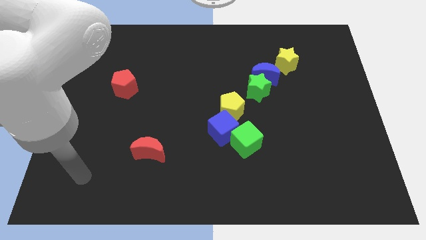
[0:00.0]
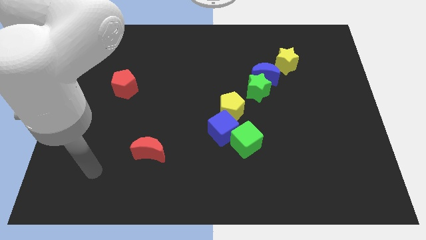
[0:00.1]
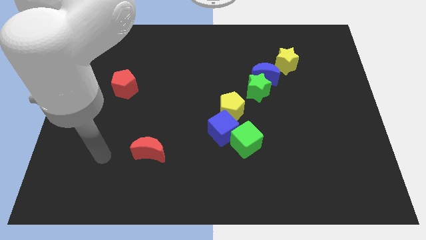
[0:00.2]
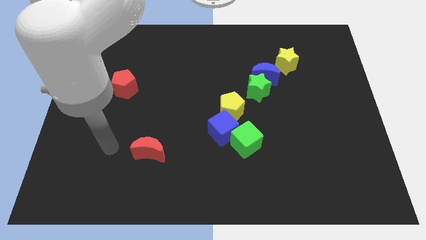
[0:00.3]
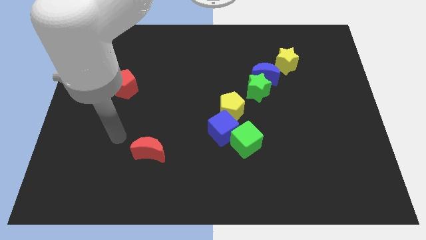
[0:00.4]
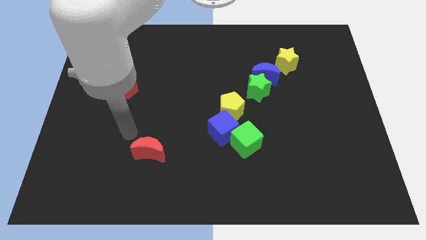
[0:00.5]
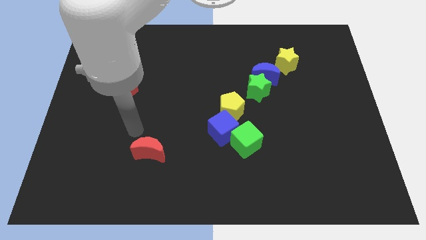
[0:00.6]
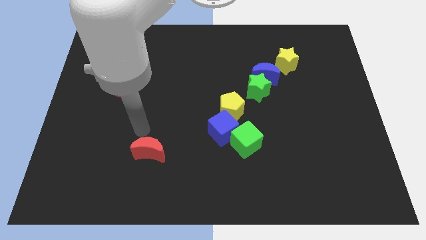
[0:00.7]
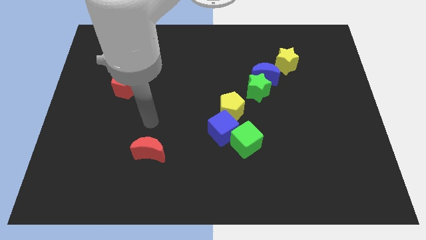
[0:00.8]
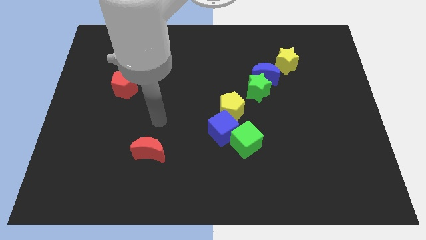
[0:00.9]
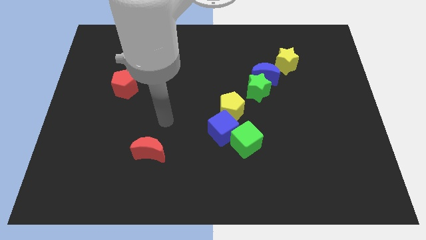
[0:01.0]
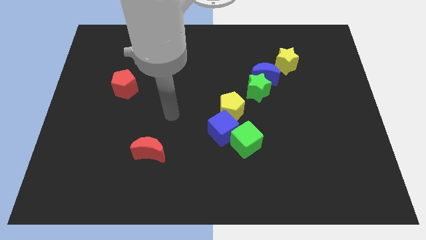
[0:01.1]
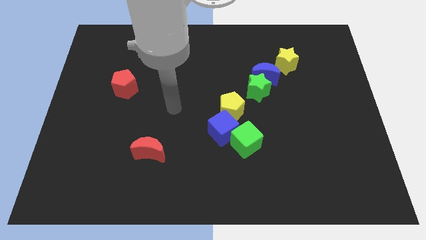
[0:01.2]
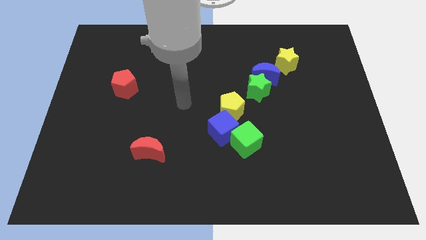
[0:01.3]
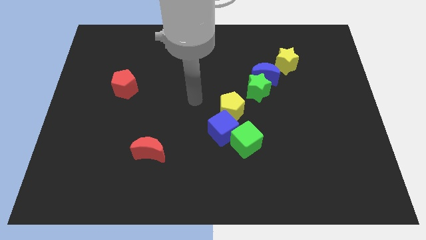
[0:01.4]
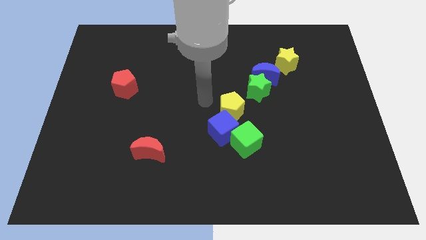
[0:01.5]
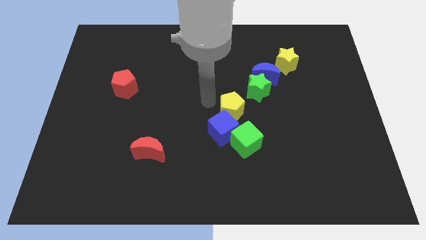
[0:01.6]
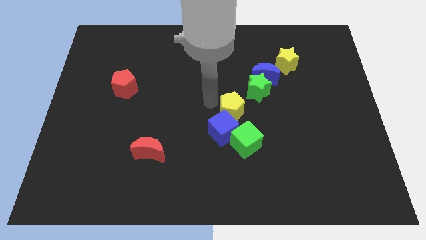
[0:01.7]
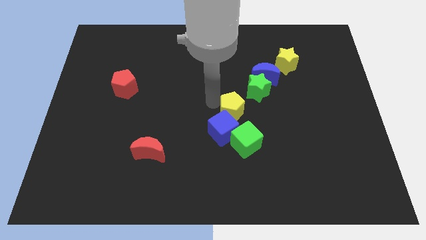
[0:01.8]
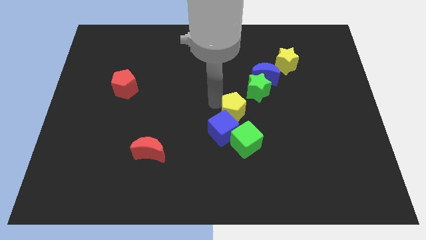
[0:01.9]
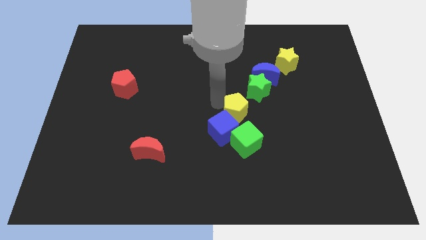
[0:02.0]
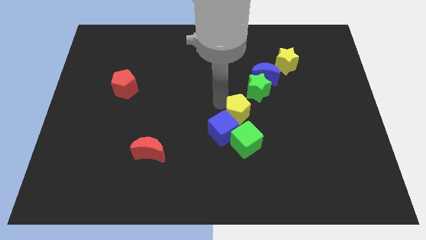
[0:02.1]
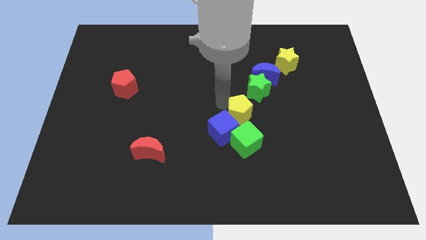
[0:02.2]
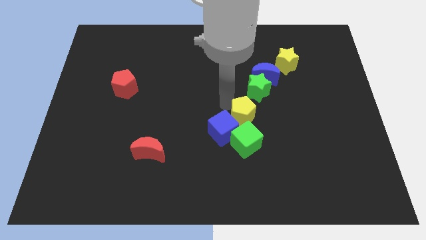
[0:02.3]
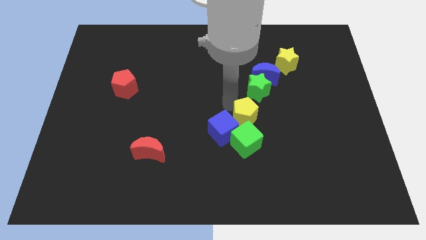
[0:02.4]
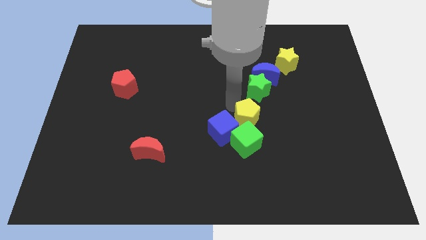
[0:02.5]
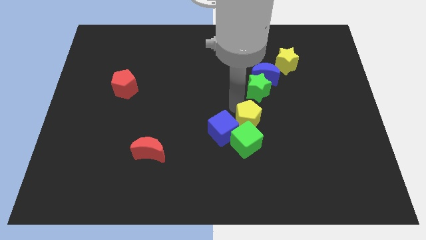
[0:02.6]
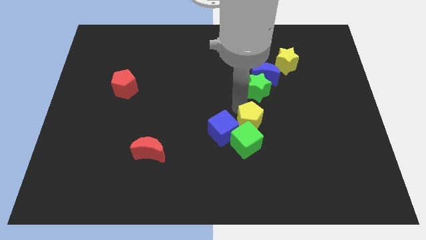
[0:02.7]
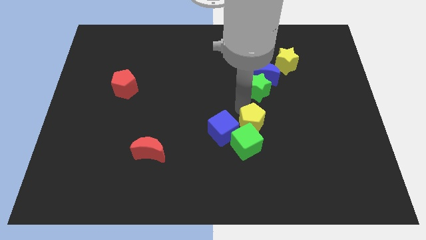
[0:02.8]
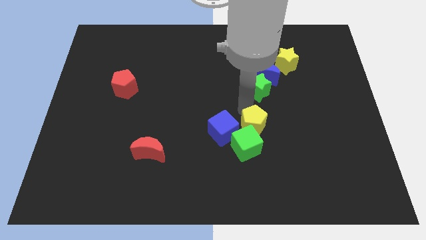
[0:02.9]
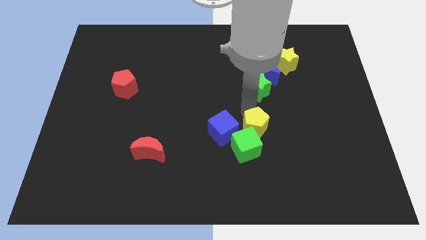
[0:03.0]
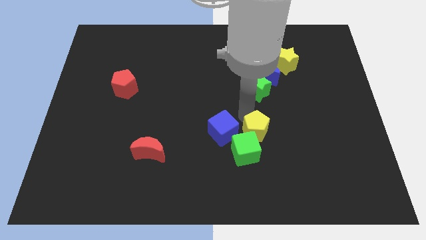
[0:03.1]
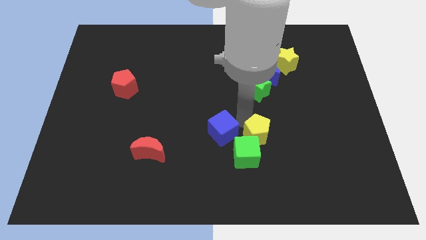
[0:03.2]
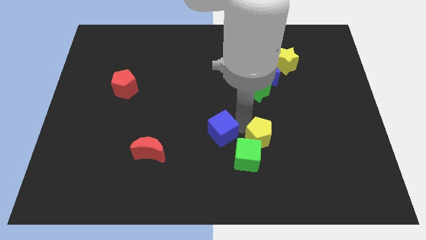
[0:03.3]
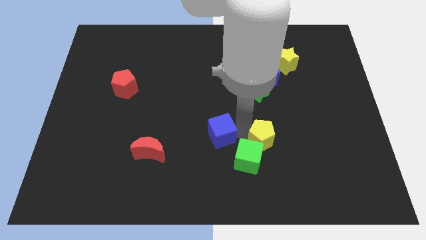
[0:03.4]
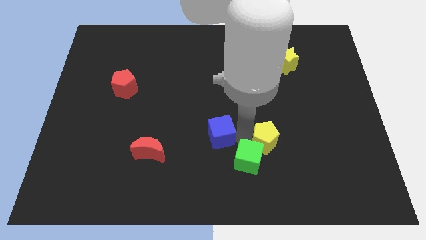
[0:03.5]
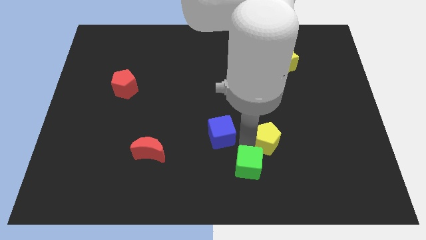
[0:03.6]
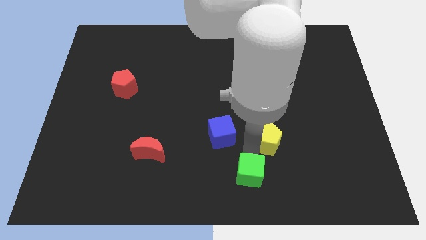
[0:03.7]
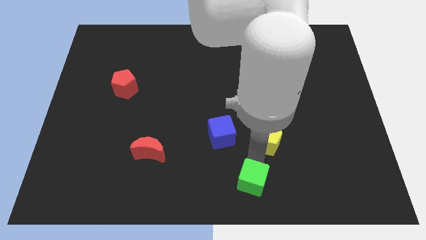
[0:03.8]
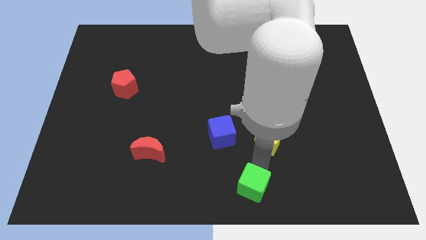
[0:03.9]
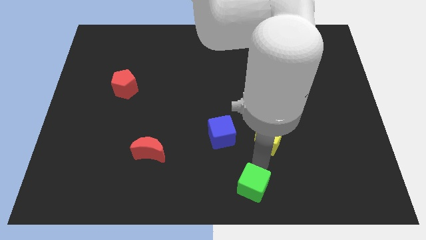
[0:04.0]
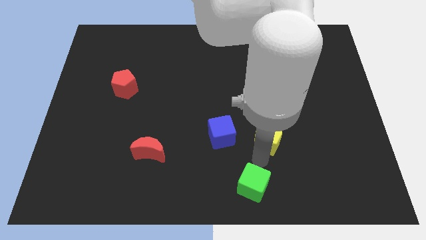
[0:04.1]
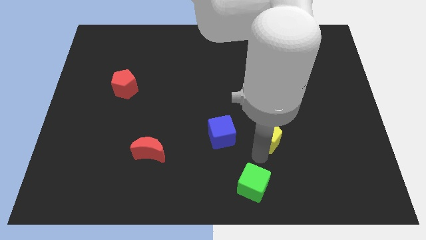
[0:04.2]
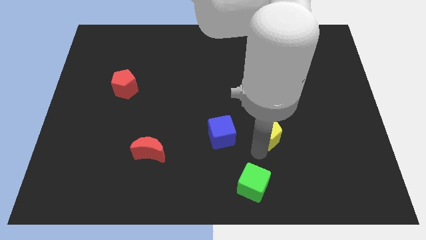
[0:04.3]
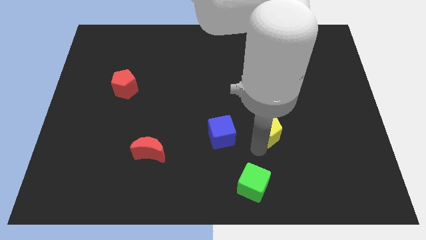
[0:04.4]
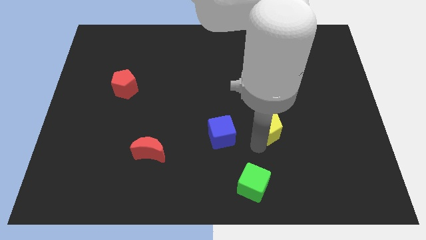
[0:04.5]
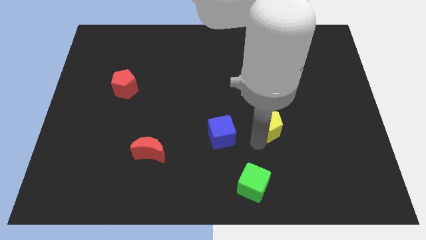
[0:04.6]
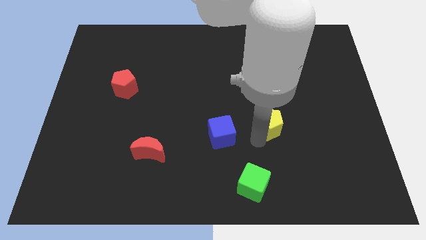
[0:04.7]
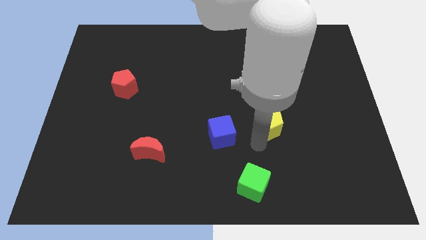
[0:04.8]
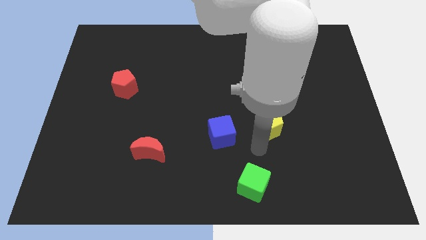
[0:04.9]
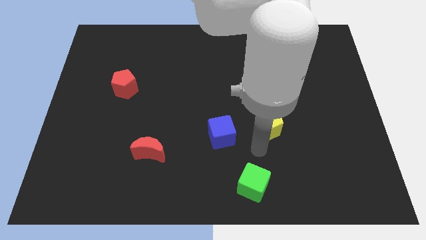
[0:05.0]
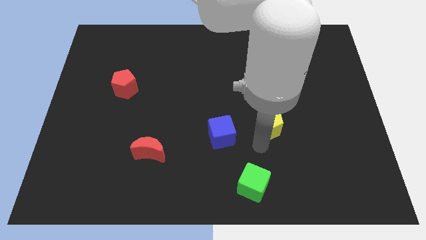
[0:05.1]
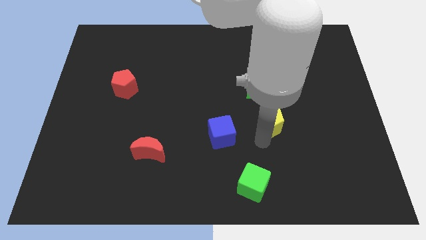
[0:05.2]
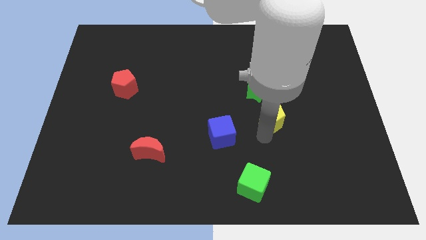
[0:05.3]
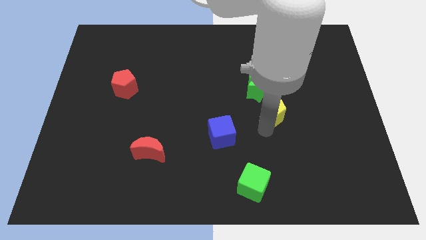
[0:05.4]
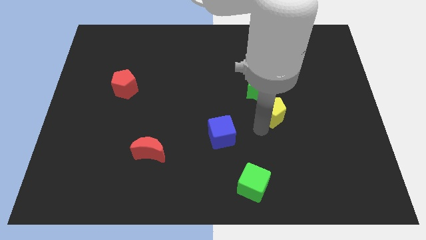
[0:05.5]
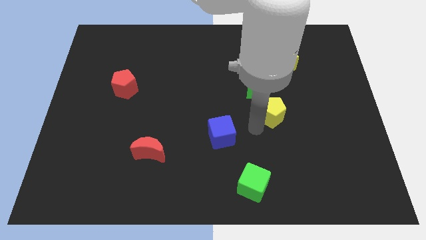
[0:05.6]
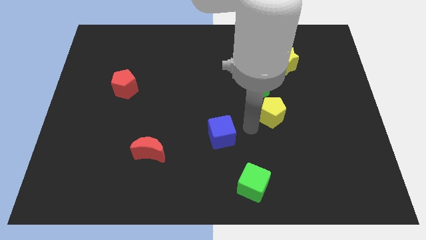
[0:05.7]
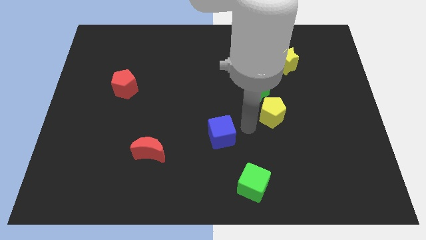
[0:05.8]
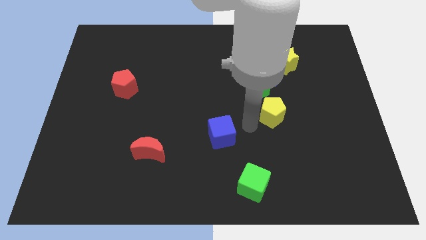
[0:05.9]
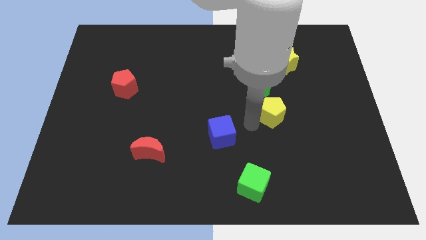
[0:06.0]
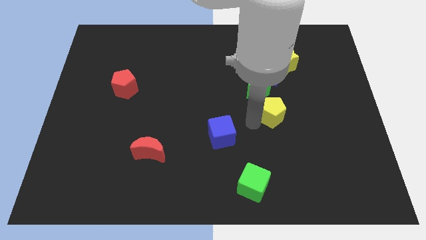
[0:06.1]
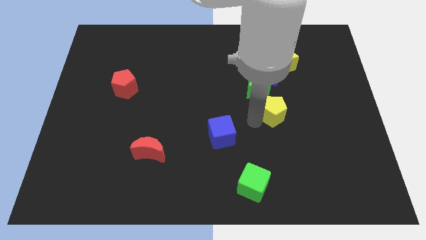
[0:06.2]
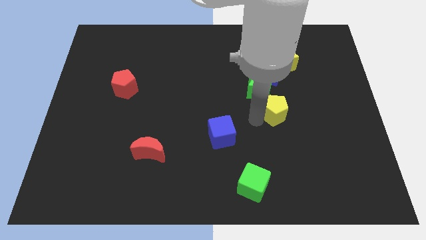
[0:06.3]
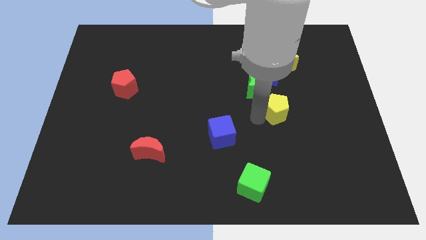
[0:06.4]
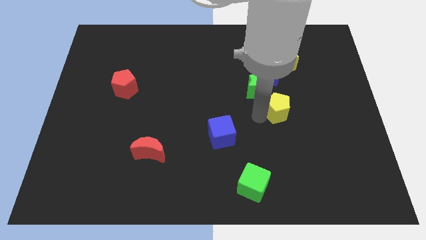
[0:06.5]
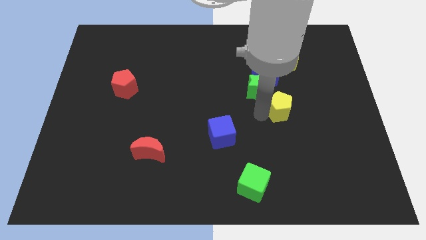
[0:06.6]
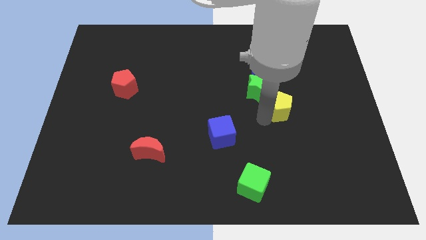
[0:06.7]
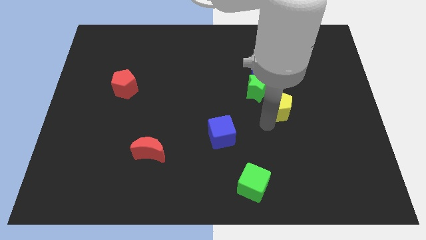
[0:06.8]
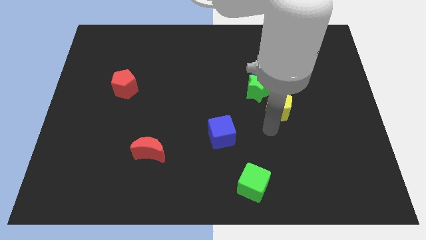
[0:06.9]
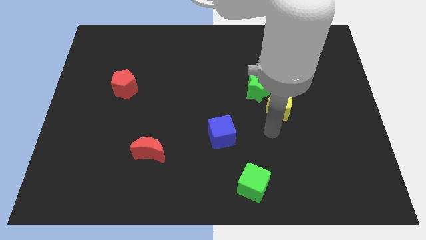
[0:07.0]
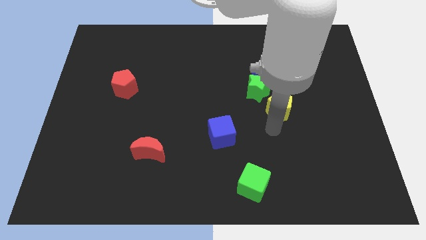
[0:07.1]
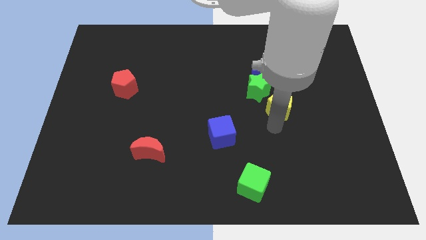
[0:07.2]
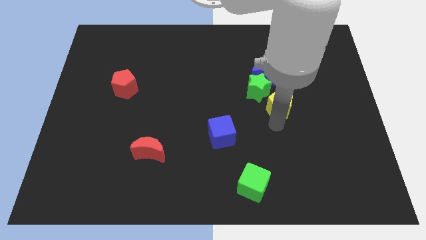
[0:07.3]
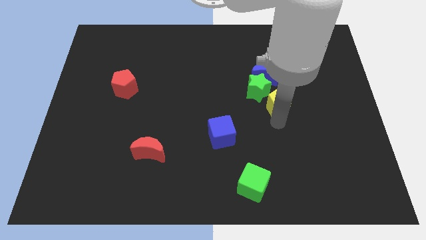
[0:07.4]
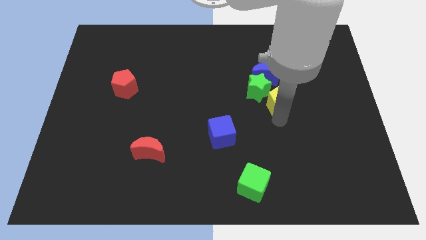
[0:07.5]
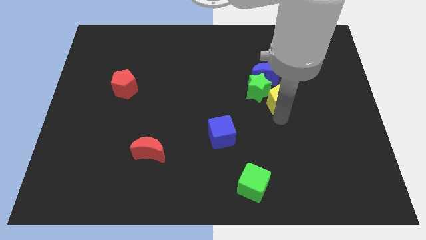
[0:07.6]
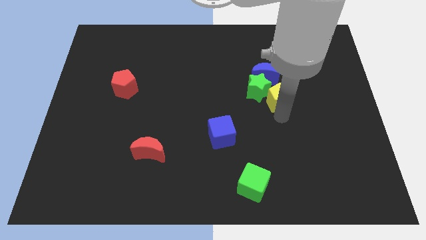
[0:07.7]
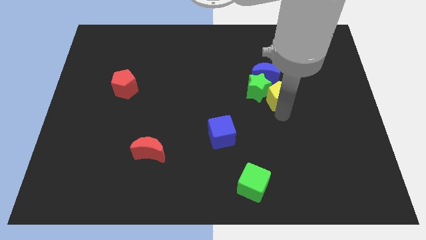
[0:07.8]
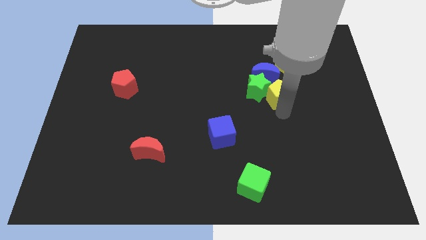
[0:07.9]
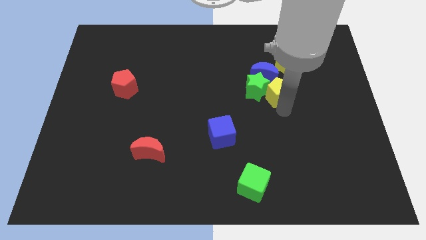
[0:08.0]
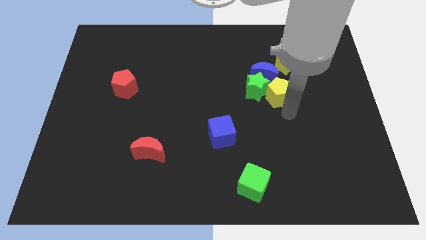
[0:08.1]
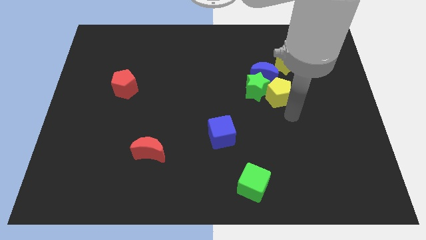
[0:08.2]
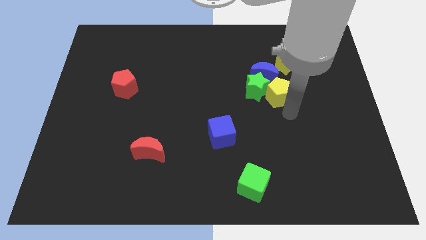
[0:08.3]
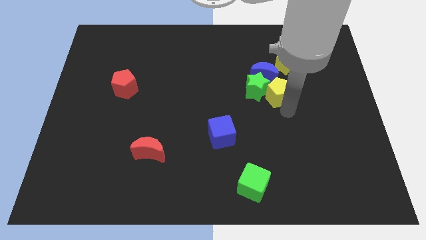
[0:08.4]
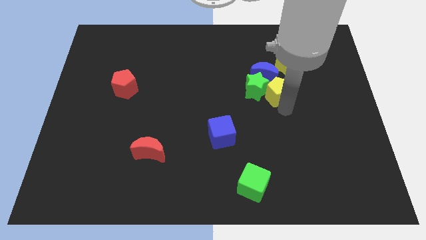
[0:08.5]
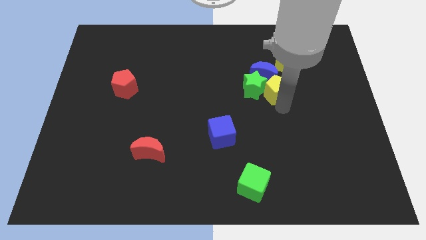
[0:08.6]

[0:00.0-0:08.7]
move the yellow pentagon towards the blue moon
